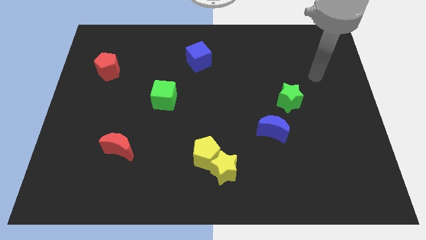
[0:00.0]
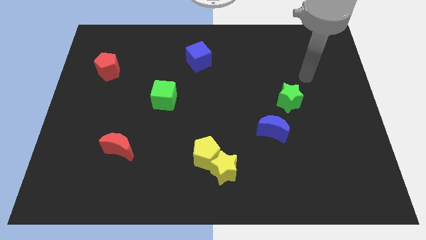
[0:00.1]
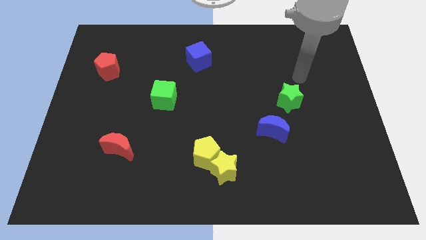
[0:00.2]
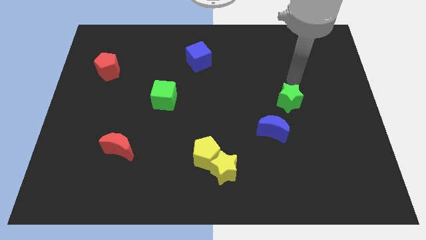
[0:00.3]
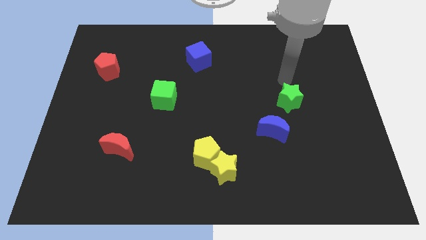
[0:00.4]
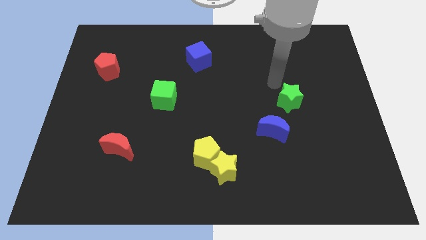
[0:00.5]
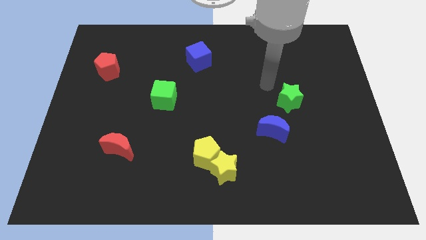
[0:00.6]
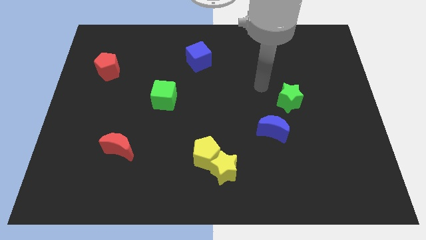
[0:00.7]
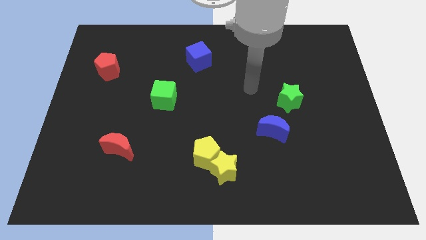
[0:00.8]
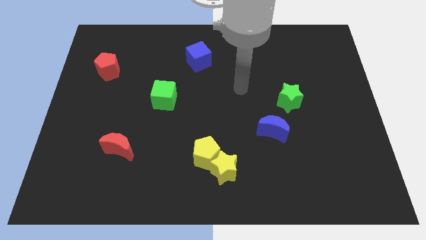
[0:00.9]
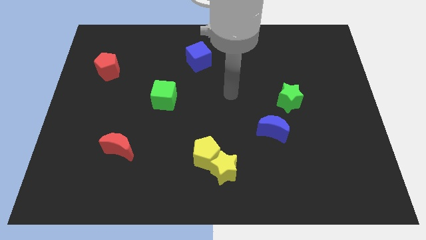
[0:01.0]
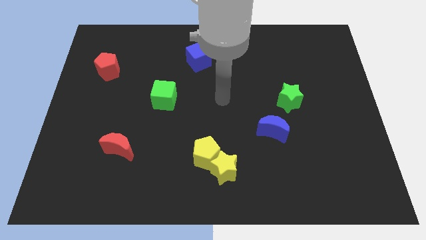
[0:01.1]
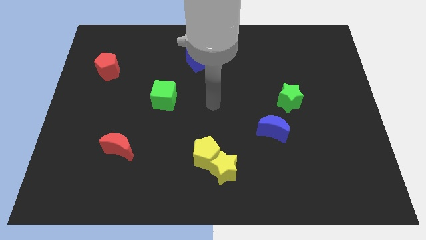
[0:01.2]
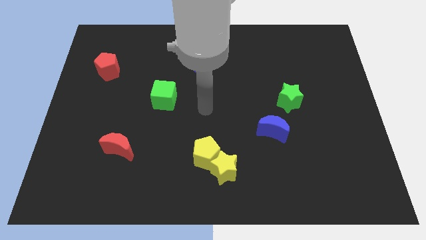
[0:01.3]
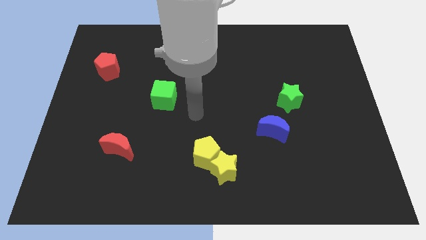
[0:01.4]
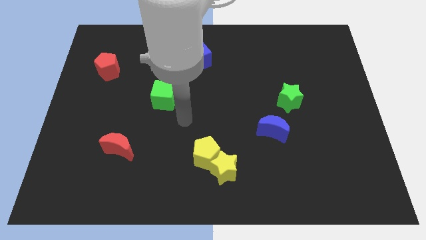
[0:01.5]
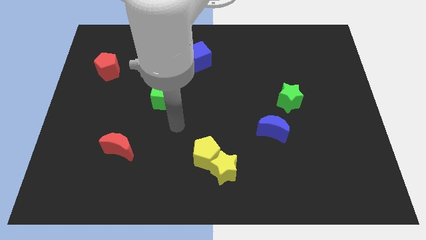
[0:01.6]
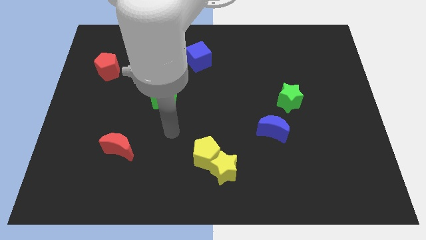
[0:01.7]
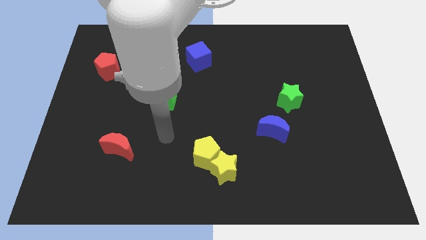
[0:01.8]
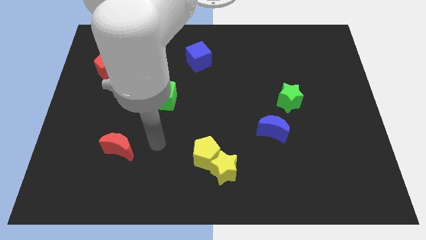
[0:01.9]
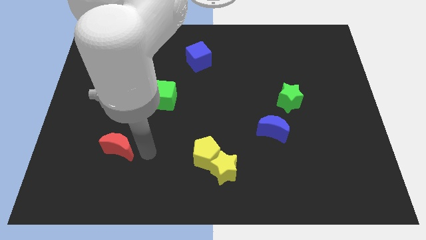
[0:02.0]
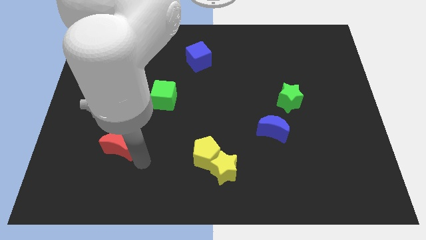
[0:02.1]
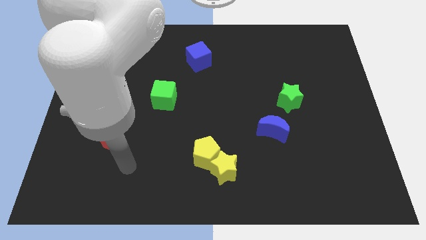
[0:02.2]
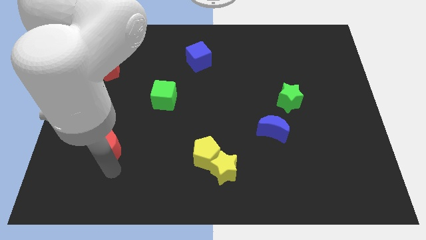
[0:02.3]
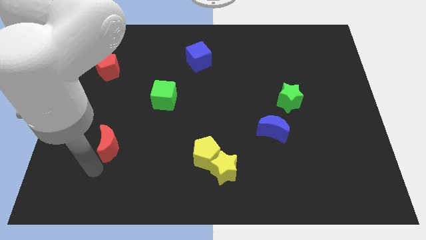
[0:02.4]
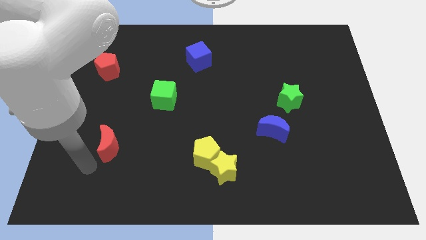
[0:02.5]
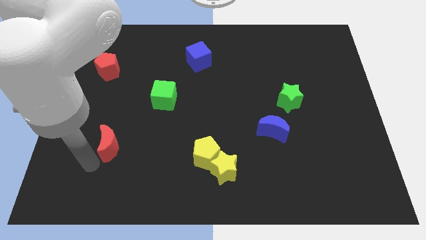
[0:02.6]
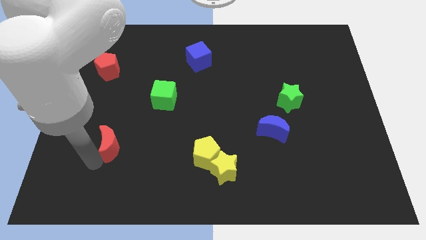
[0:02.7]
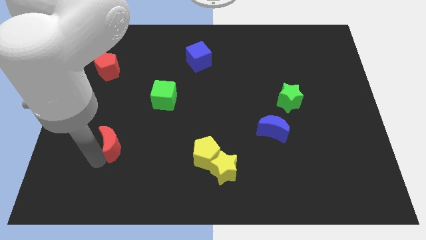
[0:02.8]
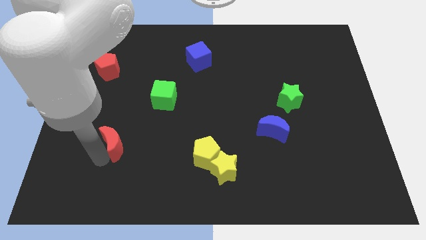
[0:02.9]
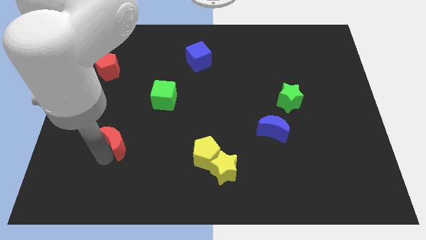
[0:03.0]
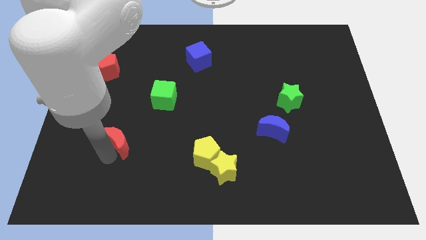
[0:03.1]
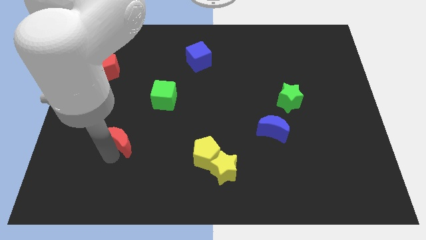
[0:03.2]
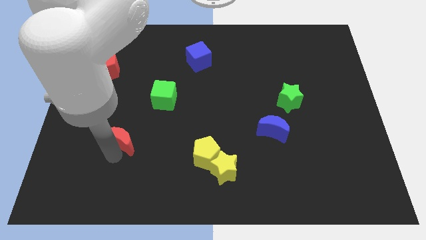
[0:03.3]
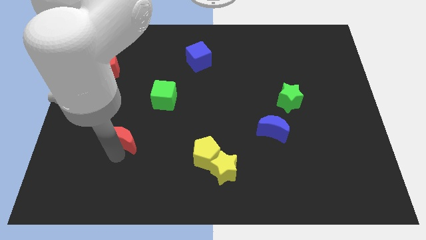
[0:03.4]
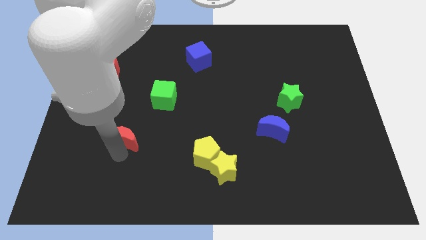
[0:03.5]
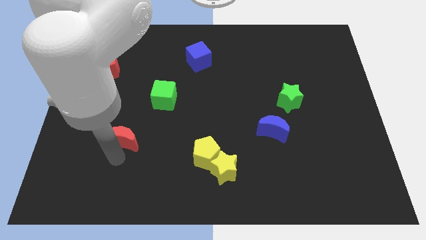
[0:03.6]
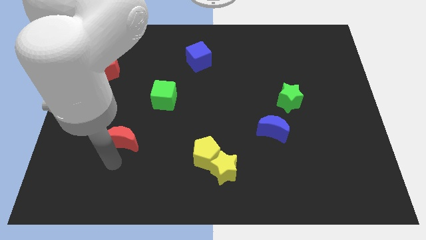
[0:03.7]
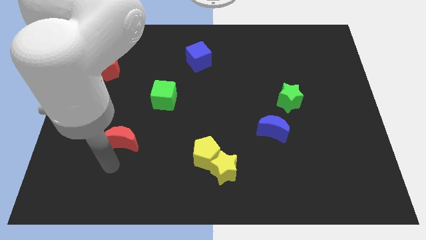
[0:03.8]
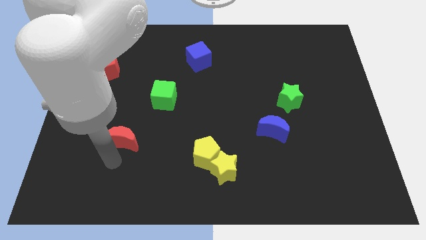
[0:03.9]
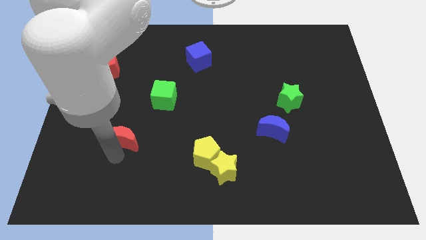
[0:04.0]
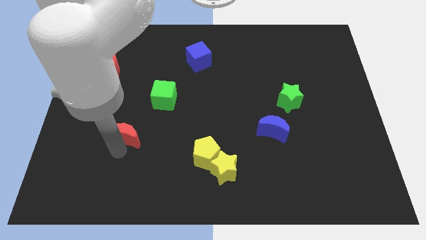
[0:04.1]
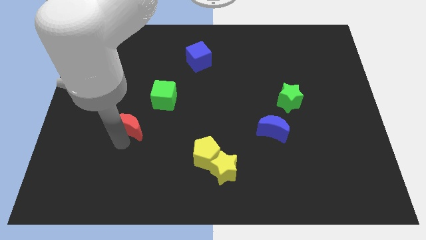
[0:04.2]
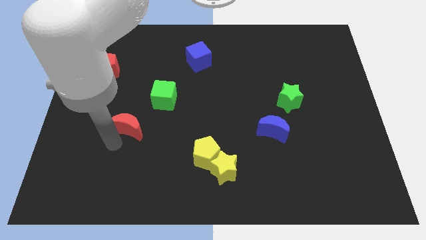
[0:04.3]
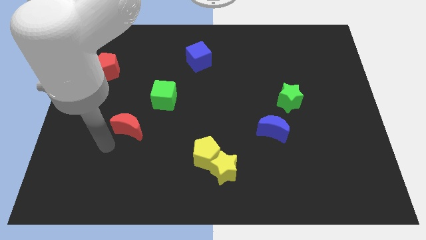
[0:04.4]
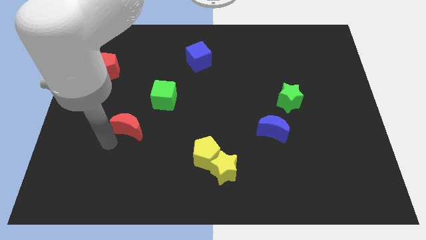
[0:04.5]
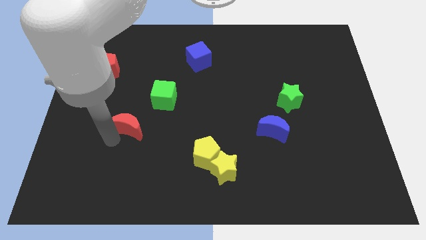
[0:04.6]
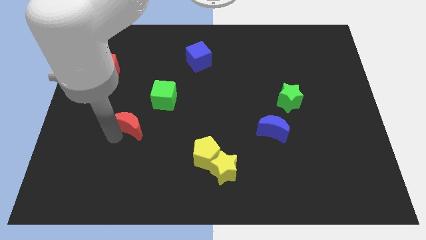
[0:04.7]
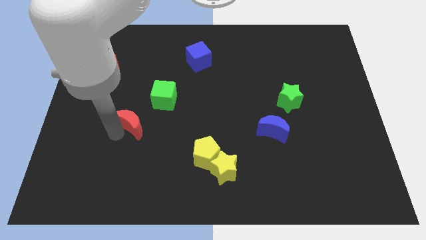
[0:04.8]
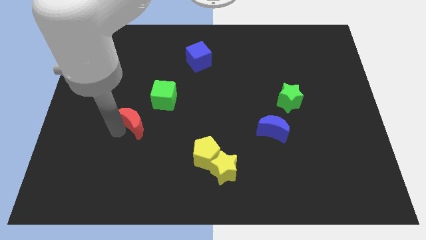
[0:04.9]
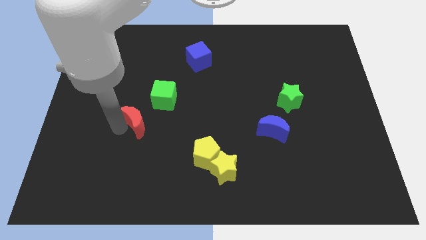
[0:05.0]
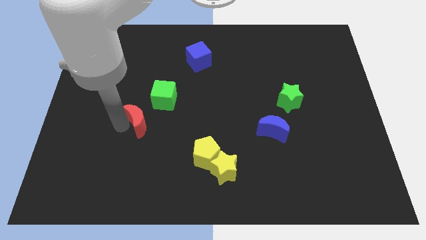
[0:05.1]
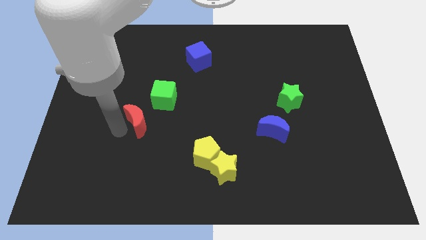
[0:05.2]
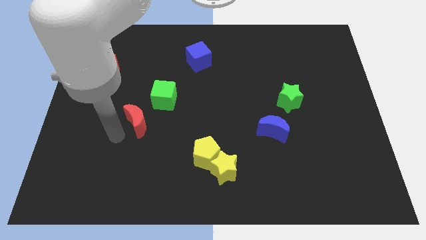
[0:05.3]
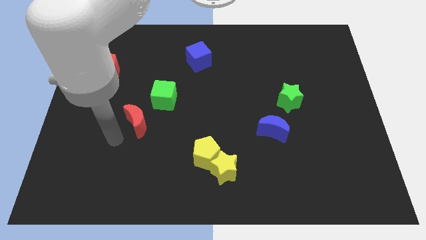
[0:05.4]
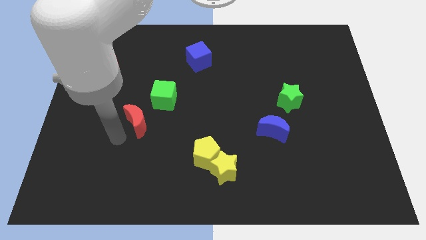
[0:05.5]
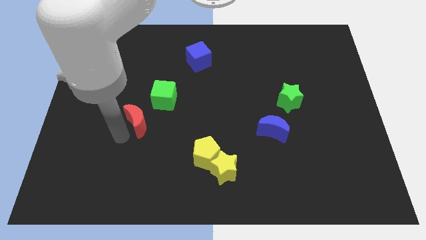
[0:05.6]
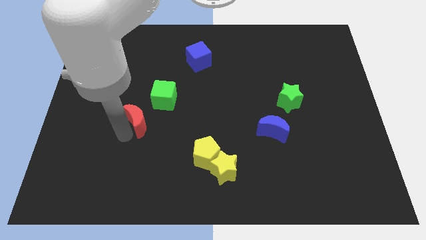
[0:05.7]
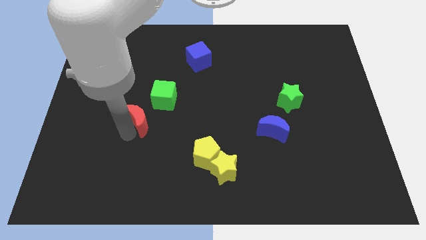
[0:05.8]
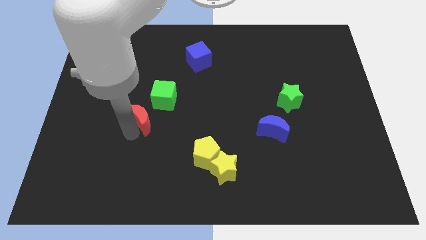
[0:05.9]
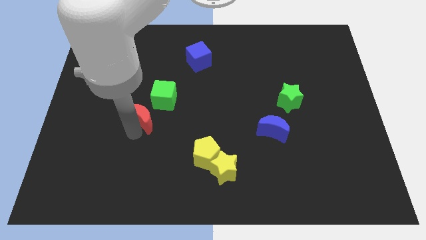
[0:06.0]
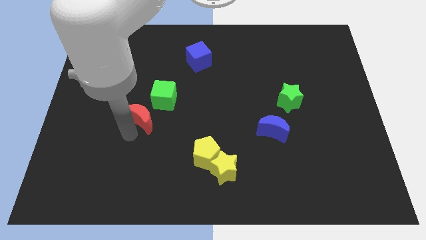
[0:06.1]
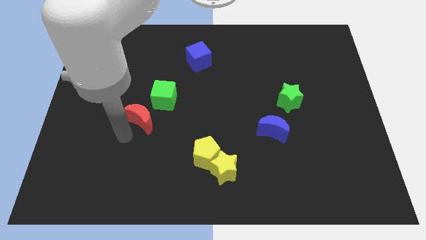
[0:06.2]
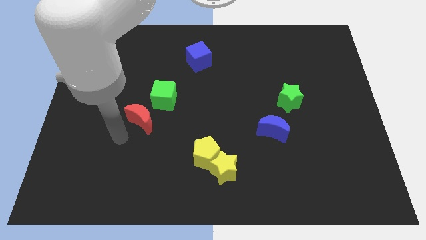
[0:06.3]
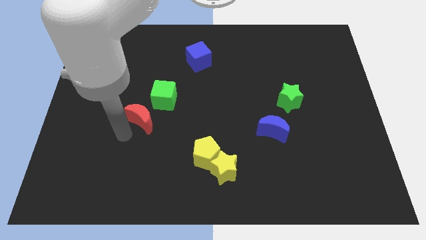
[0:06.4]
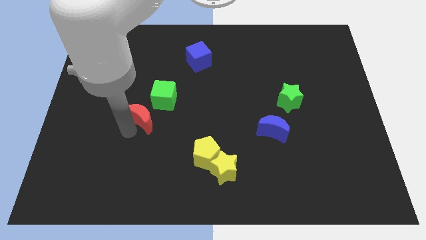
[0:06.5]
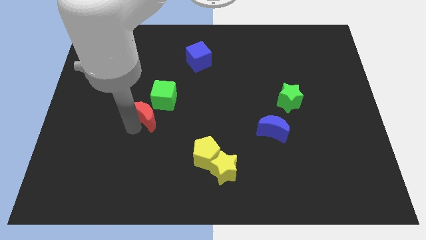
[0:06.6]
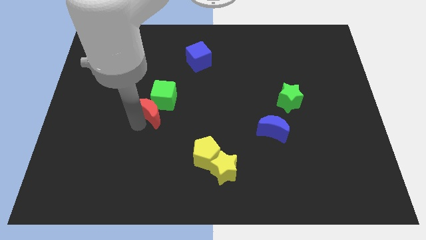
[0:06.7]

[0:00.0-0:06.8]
put the red moon close to the green cube

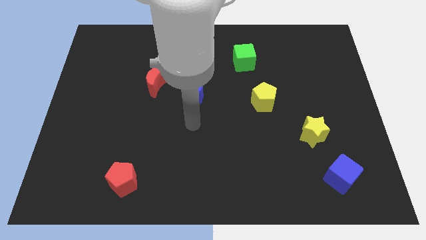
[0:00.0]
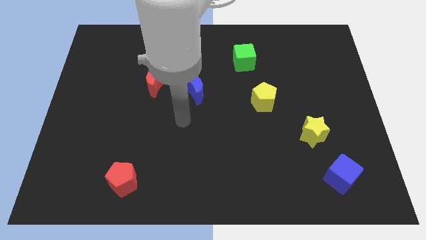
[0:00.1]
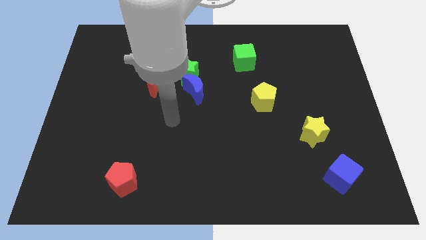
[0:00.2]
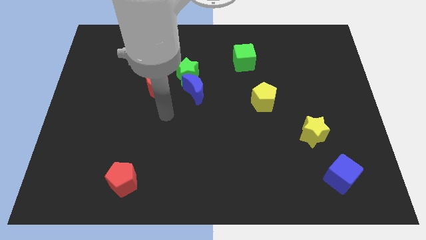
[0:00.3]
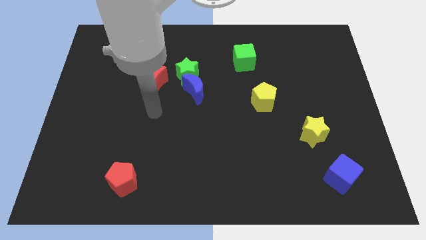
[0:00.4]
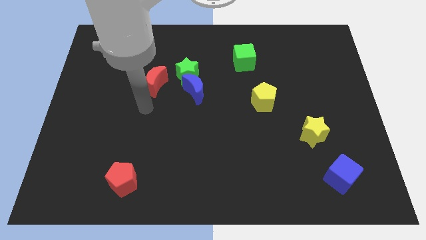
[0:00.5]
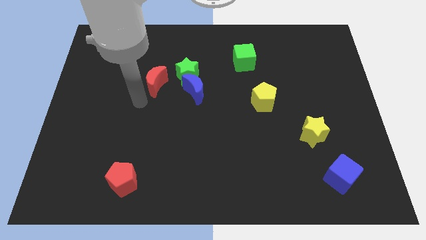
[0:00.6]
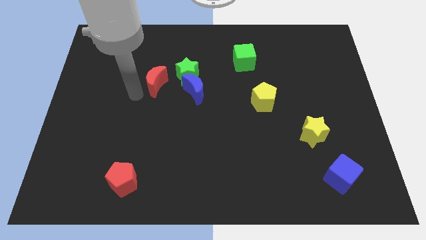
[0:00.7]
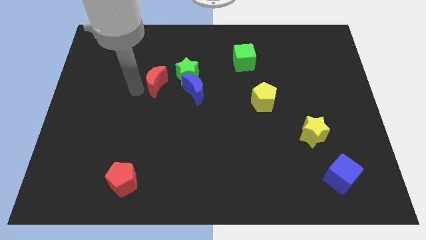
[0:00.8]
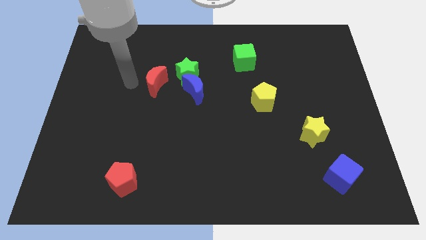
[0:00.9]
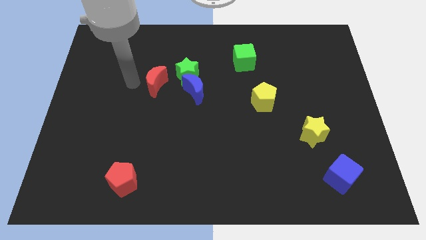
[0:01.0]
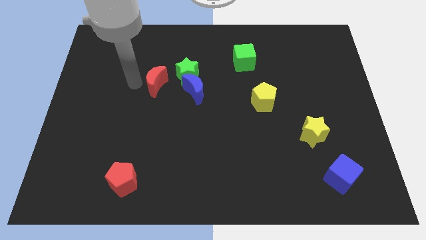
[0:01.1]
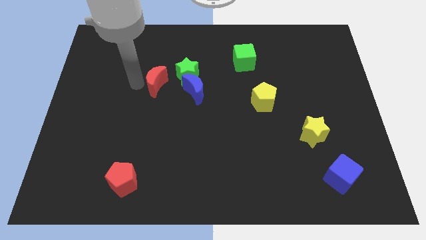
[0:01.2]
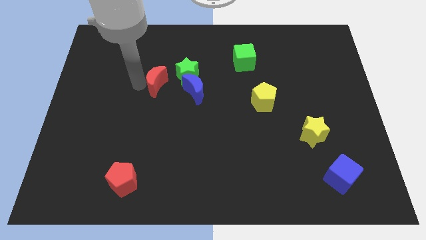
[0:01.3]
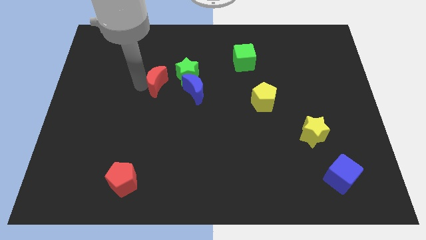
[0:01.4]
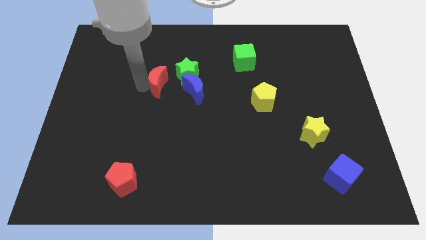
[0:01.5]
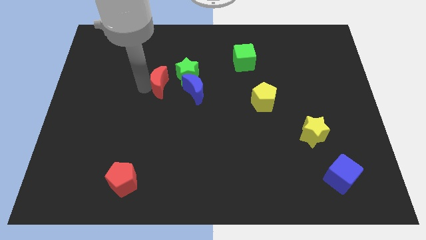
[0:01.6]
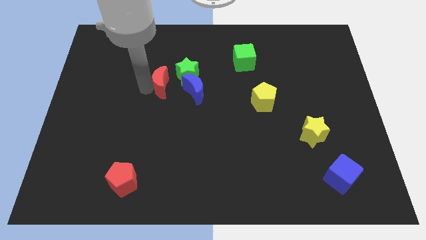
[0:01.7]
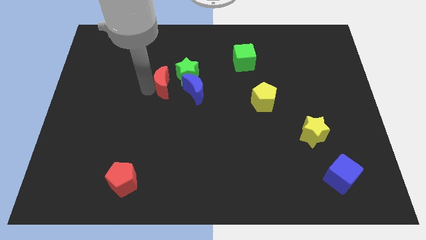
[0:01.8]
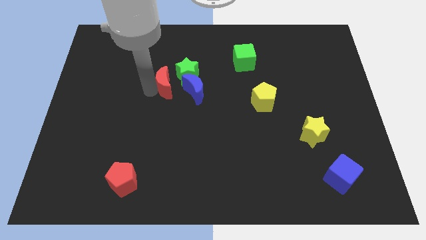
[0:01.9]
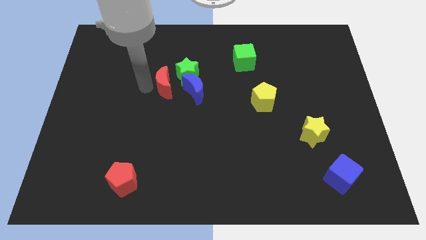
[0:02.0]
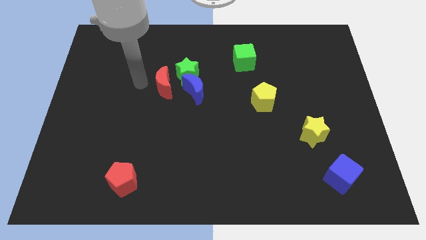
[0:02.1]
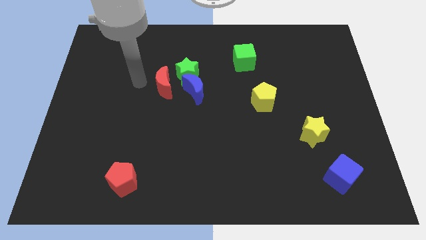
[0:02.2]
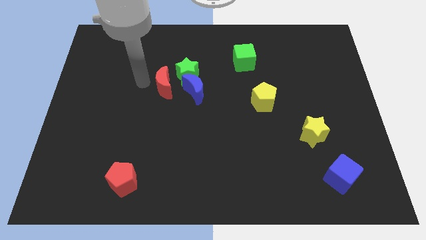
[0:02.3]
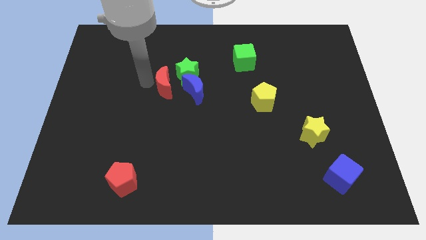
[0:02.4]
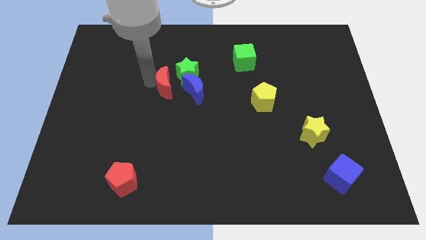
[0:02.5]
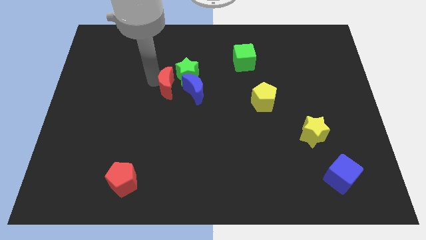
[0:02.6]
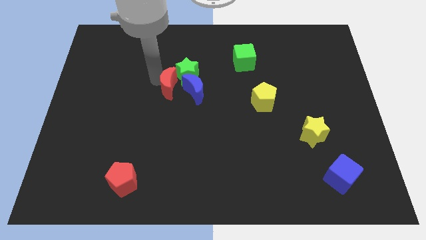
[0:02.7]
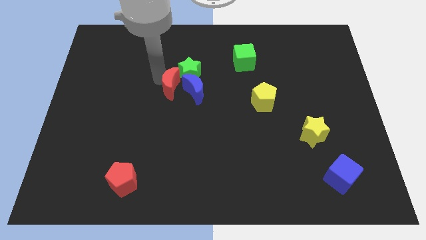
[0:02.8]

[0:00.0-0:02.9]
push the red moon towards the blue moon
